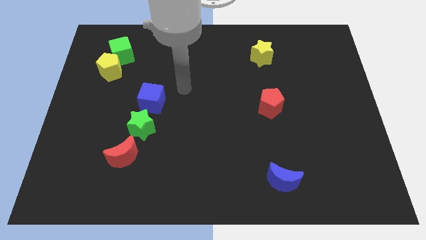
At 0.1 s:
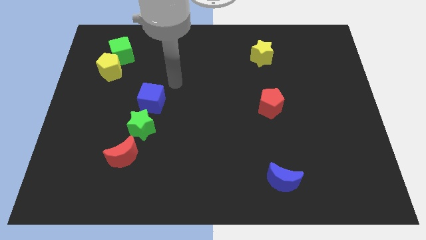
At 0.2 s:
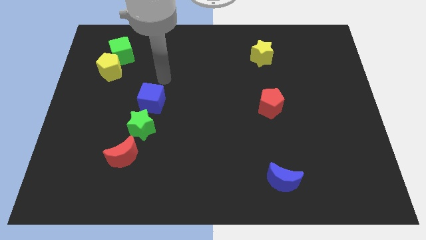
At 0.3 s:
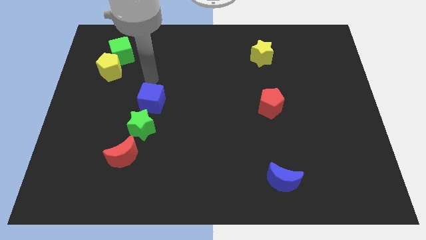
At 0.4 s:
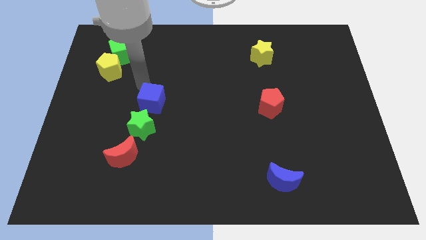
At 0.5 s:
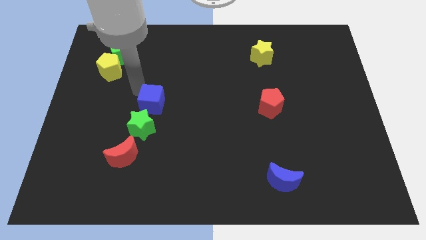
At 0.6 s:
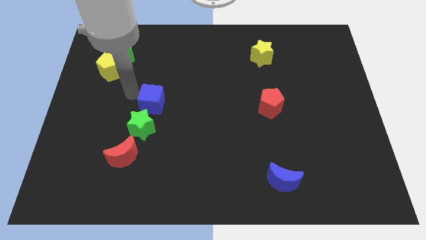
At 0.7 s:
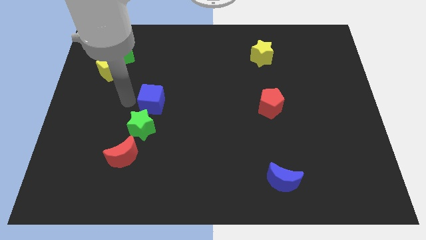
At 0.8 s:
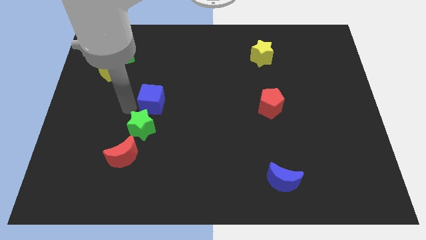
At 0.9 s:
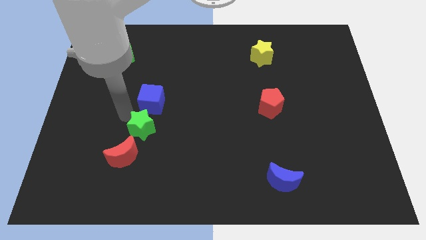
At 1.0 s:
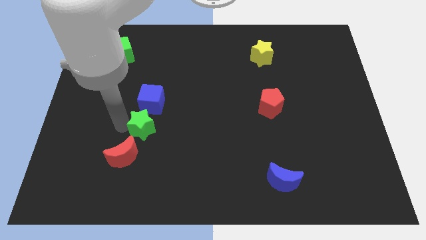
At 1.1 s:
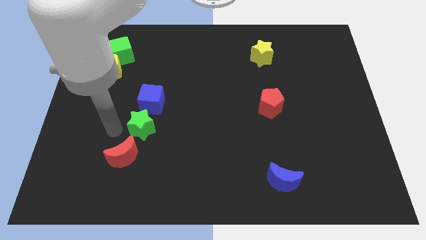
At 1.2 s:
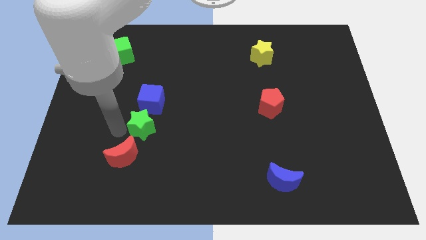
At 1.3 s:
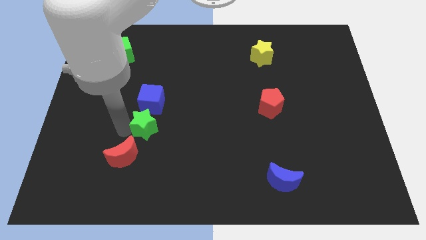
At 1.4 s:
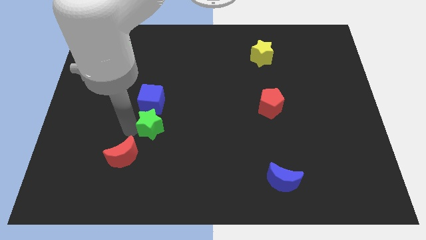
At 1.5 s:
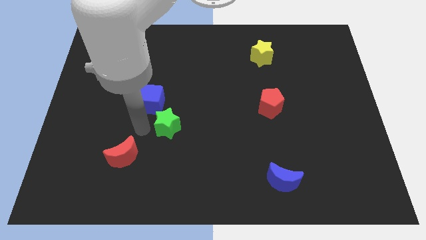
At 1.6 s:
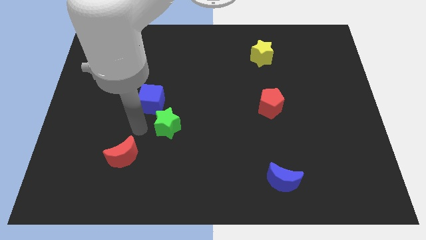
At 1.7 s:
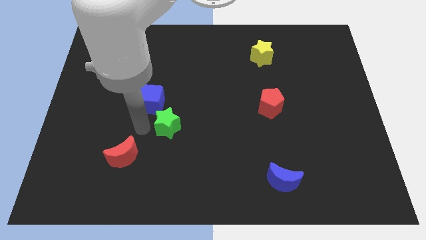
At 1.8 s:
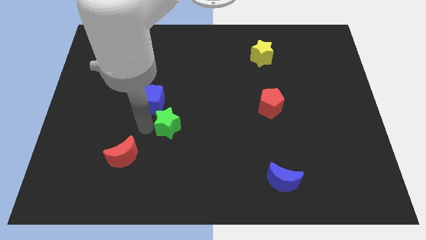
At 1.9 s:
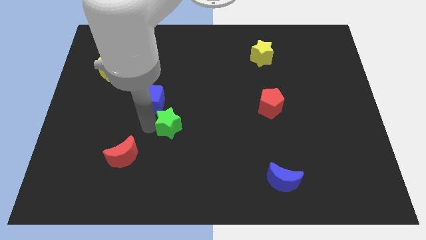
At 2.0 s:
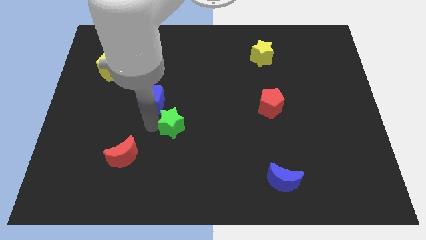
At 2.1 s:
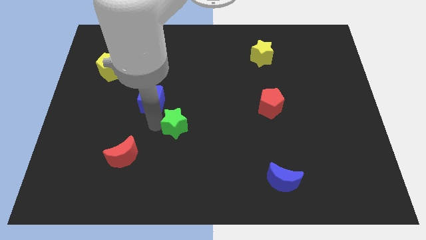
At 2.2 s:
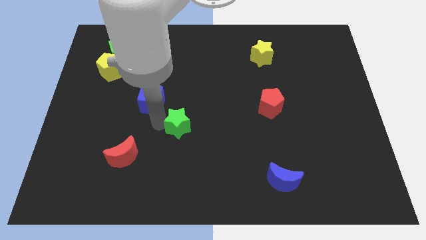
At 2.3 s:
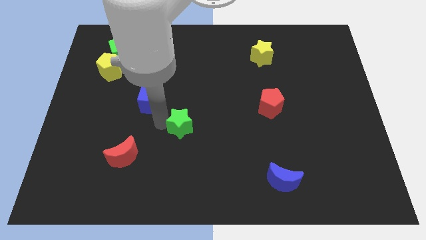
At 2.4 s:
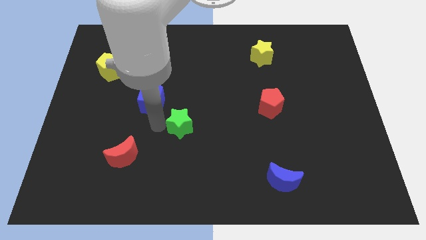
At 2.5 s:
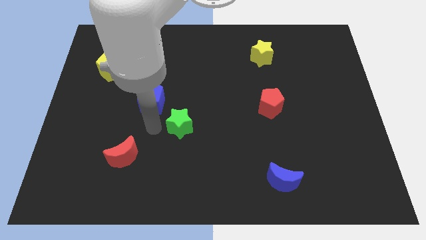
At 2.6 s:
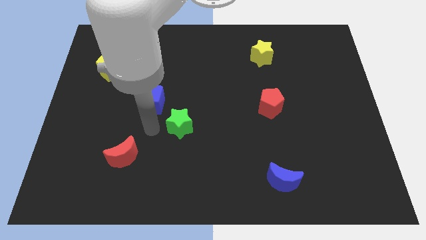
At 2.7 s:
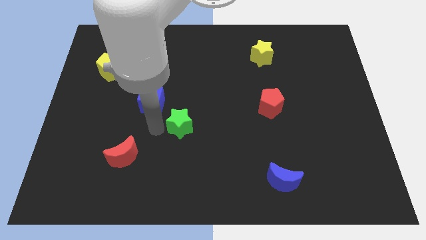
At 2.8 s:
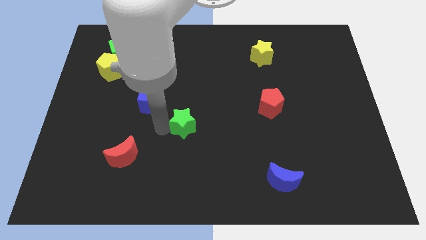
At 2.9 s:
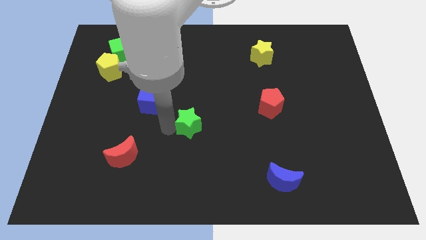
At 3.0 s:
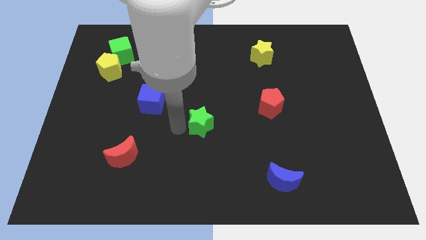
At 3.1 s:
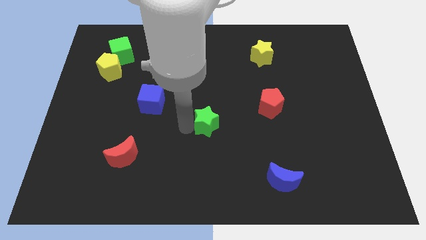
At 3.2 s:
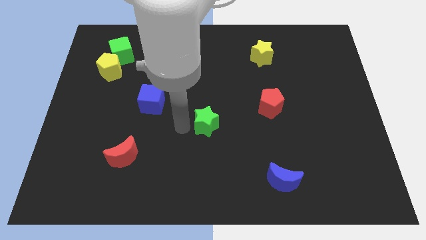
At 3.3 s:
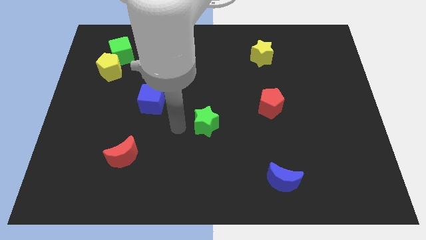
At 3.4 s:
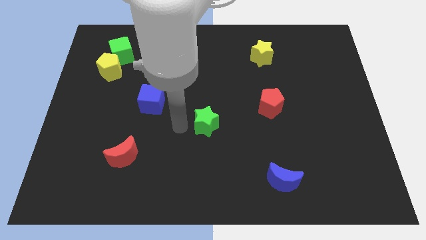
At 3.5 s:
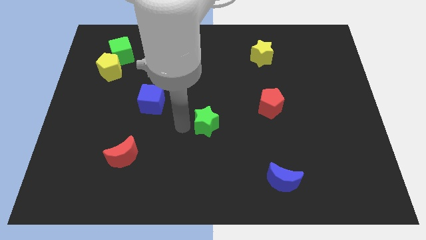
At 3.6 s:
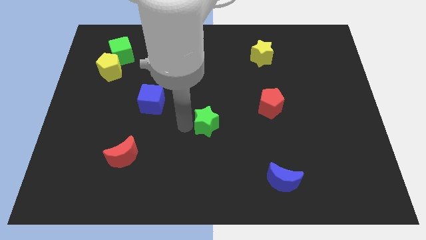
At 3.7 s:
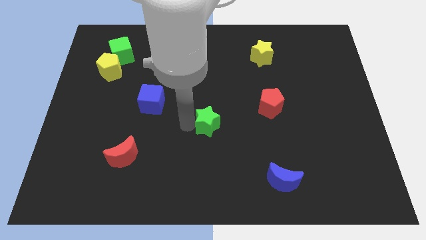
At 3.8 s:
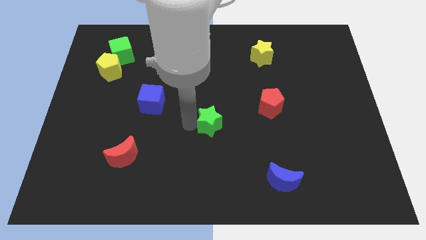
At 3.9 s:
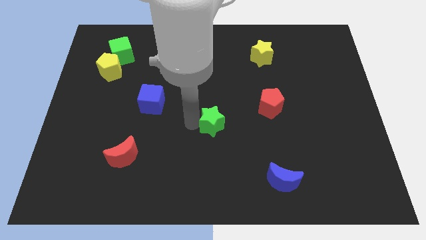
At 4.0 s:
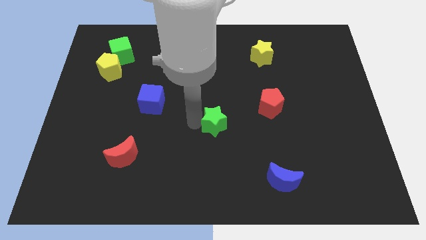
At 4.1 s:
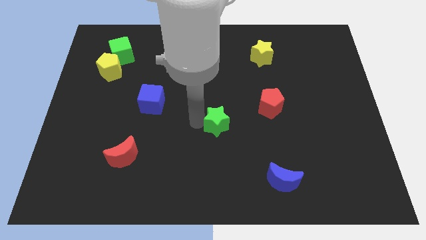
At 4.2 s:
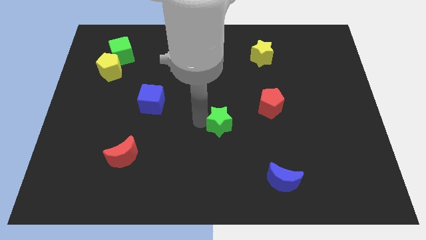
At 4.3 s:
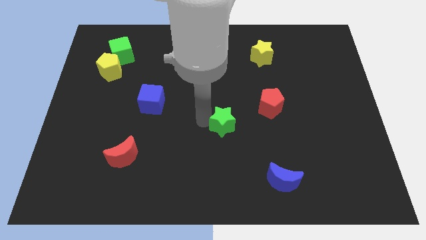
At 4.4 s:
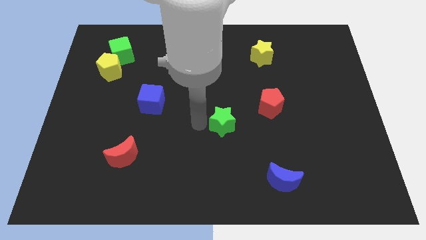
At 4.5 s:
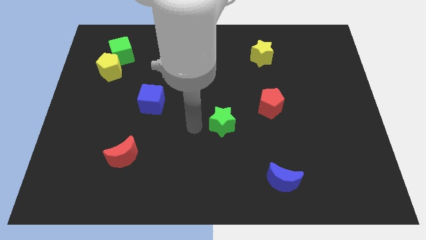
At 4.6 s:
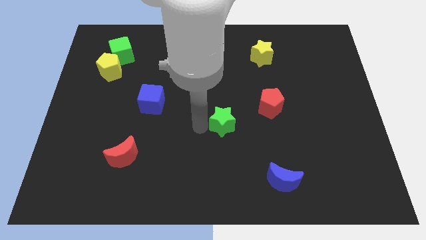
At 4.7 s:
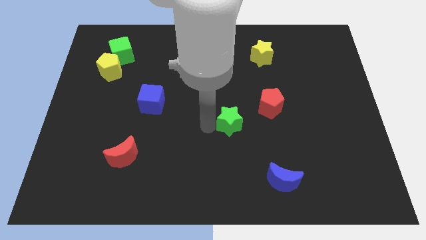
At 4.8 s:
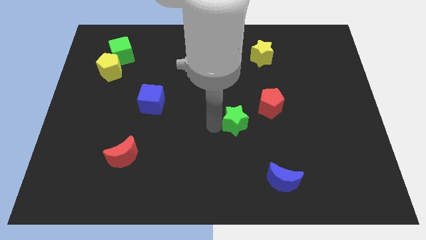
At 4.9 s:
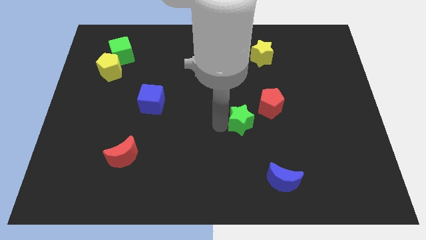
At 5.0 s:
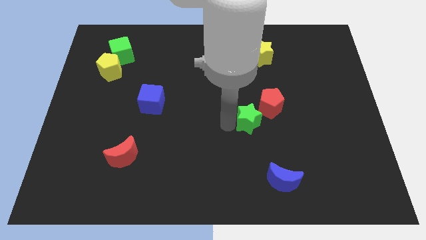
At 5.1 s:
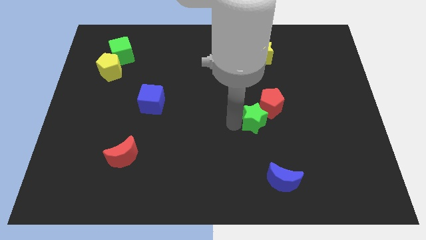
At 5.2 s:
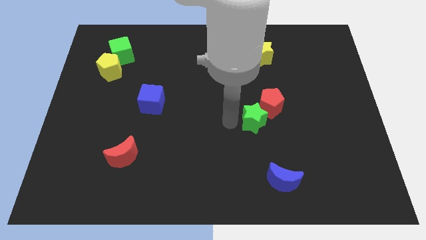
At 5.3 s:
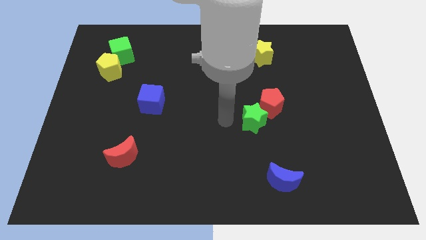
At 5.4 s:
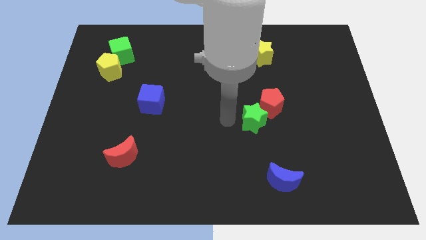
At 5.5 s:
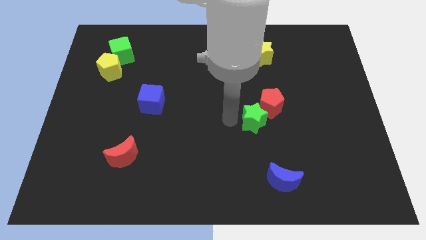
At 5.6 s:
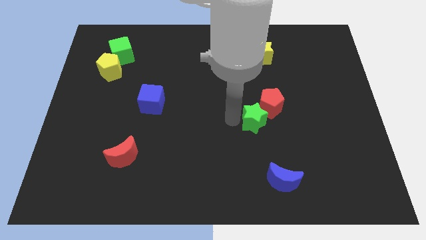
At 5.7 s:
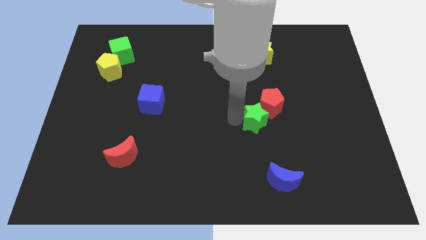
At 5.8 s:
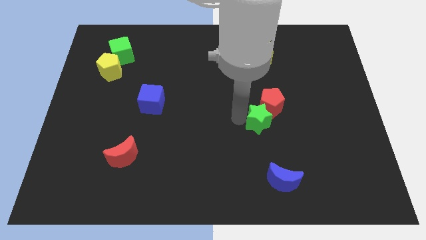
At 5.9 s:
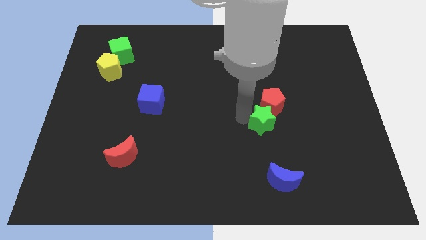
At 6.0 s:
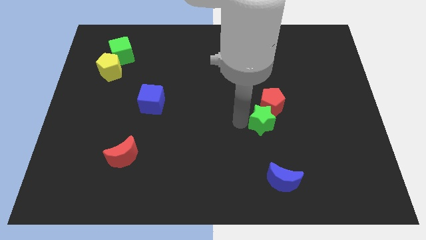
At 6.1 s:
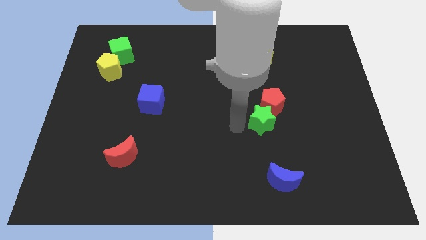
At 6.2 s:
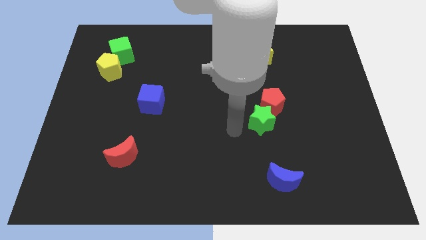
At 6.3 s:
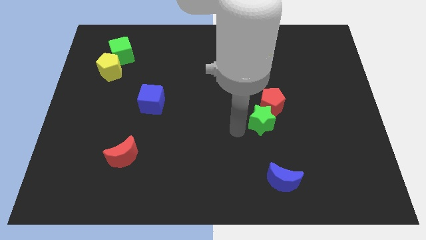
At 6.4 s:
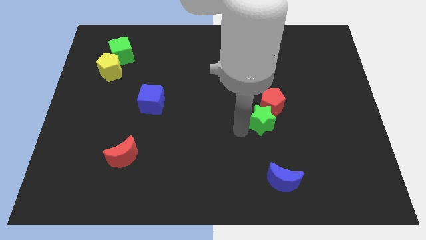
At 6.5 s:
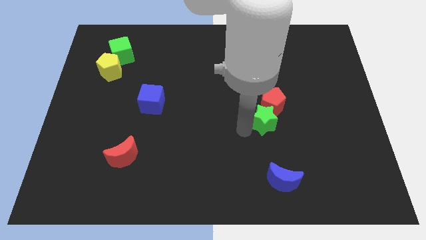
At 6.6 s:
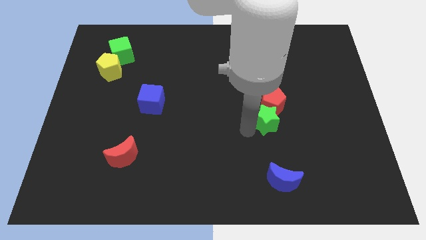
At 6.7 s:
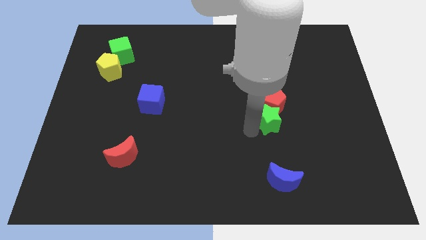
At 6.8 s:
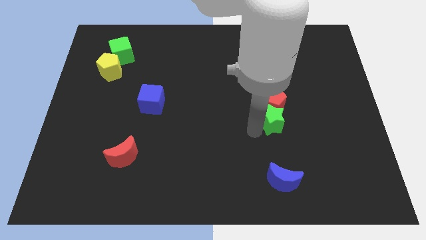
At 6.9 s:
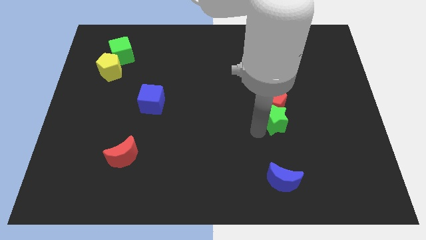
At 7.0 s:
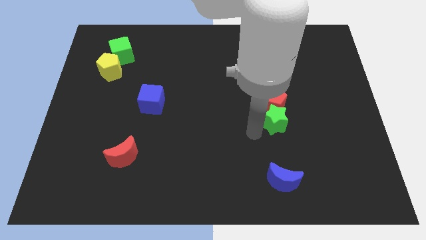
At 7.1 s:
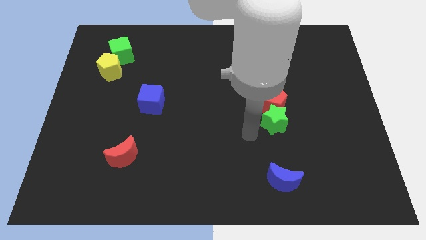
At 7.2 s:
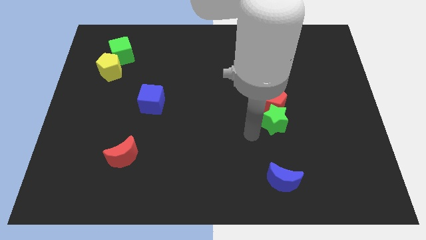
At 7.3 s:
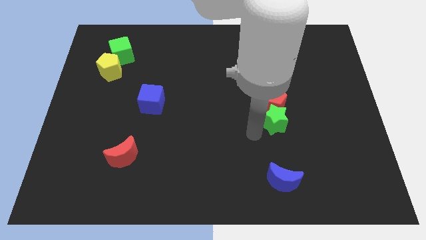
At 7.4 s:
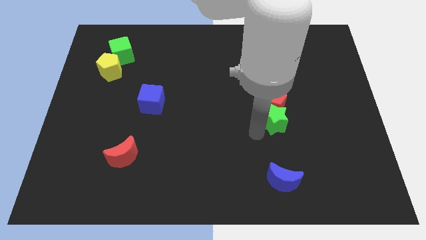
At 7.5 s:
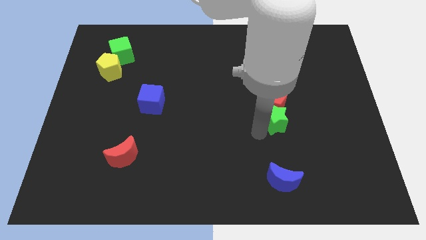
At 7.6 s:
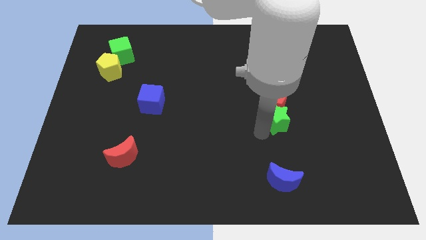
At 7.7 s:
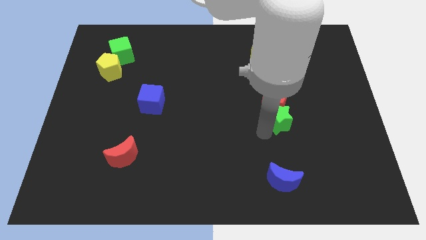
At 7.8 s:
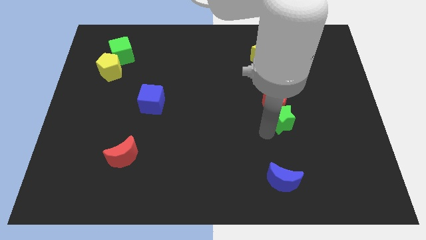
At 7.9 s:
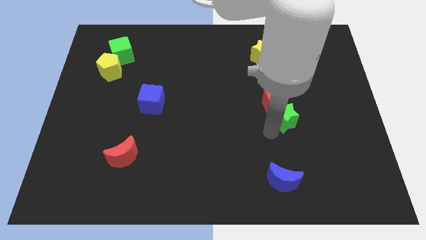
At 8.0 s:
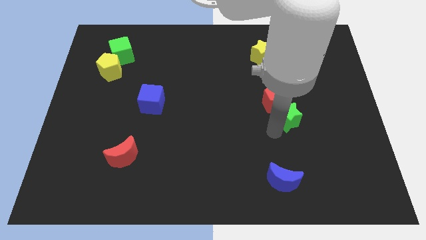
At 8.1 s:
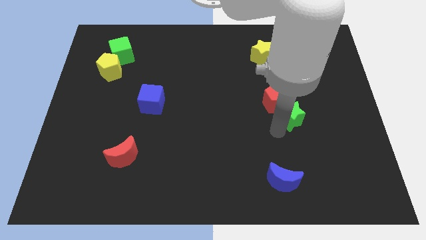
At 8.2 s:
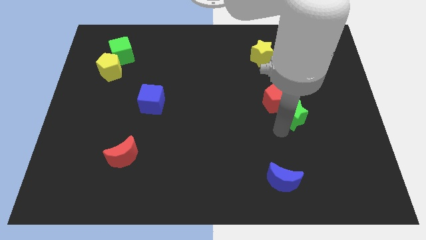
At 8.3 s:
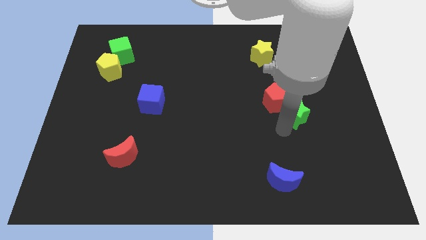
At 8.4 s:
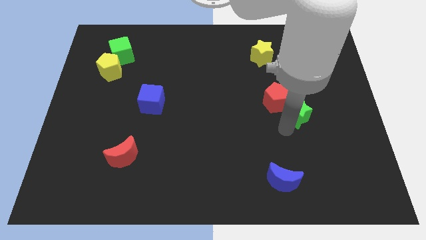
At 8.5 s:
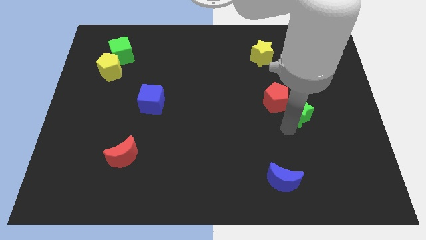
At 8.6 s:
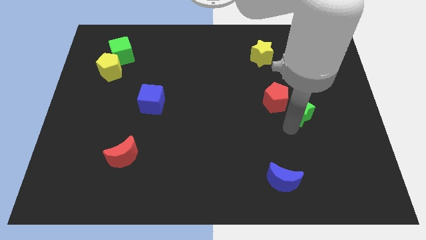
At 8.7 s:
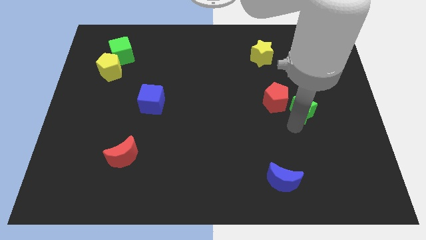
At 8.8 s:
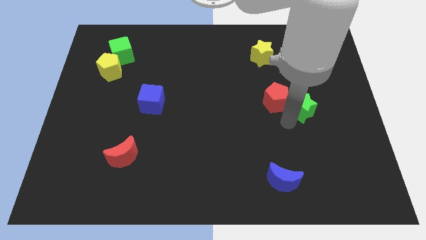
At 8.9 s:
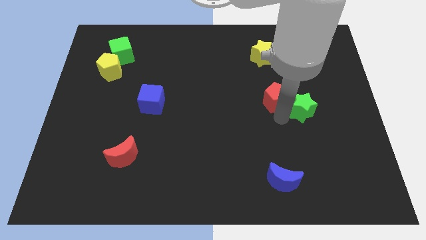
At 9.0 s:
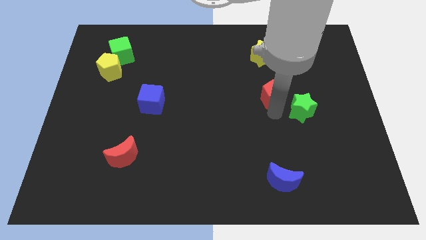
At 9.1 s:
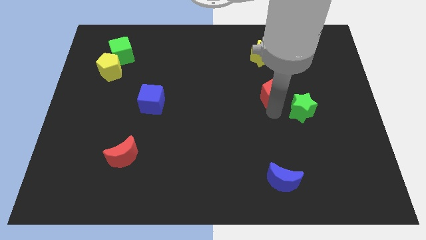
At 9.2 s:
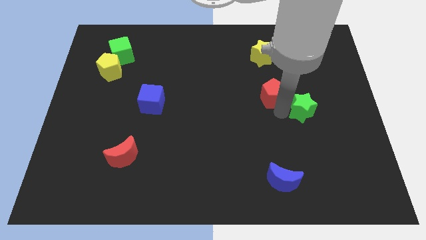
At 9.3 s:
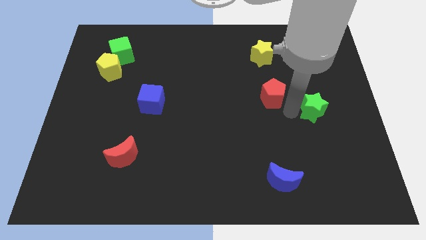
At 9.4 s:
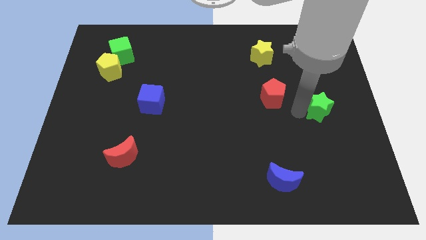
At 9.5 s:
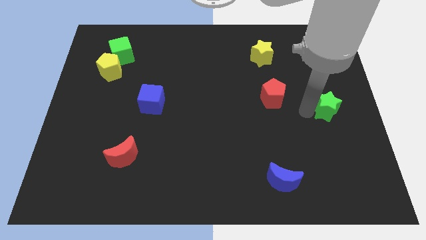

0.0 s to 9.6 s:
move the green star to the center right
